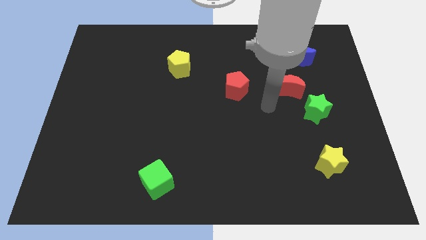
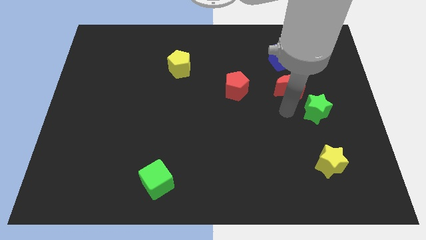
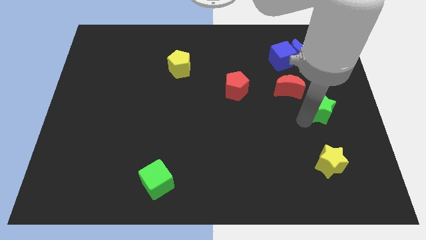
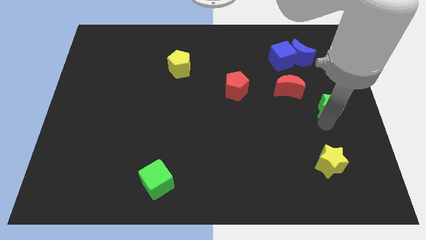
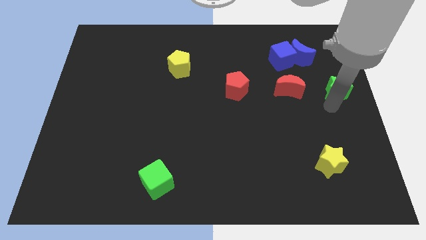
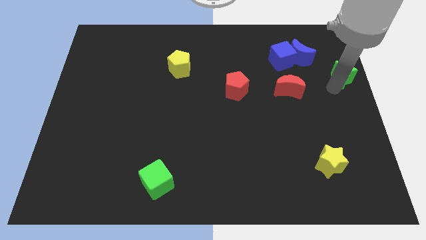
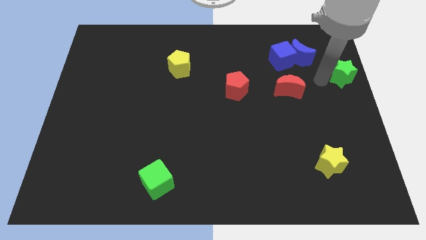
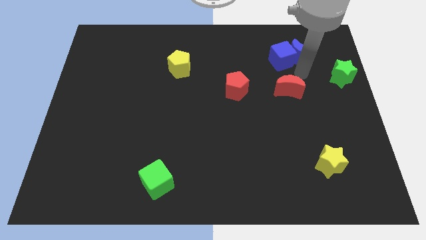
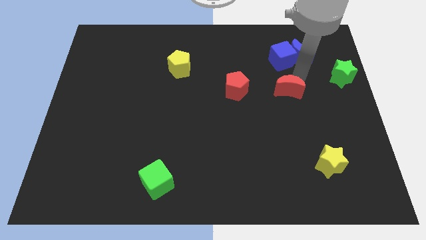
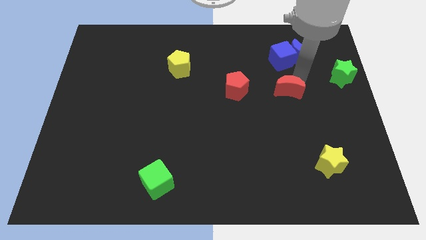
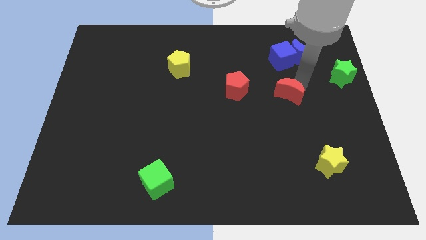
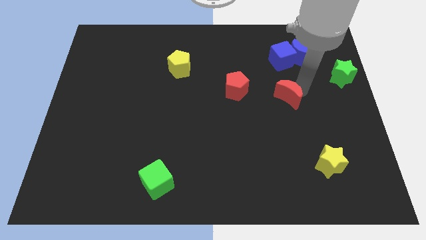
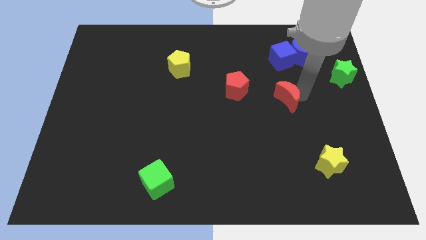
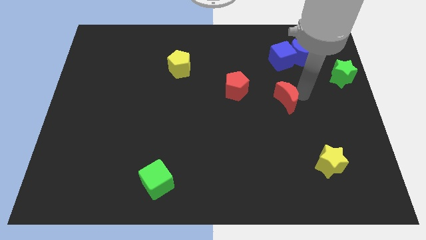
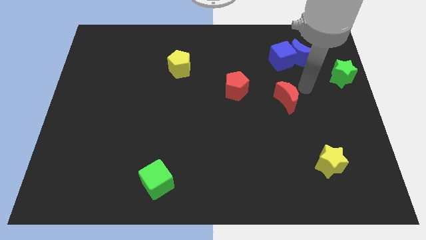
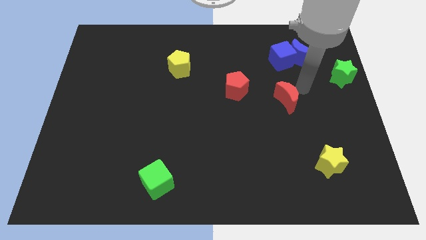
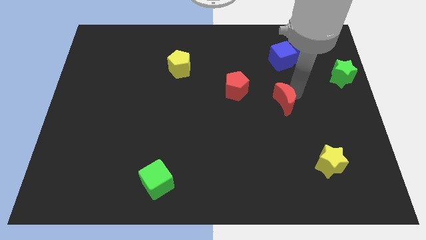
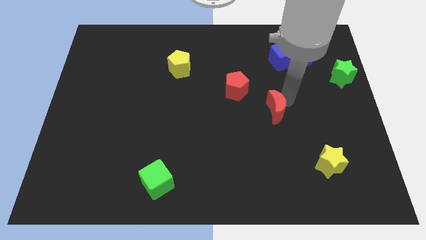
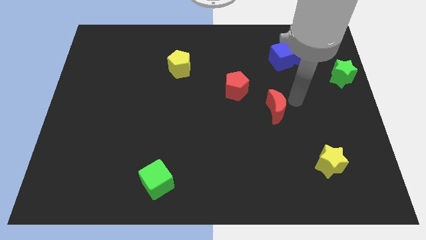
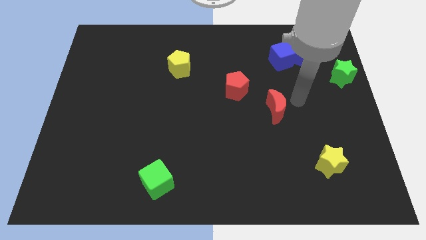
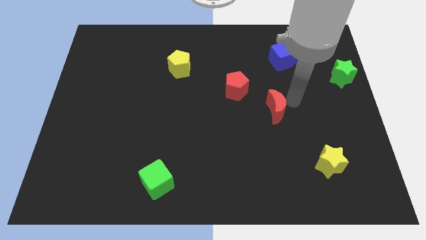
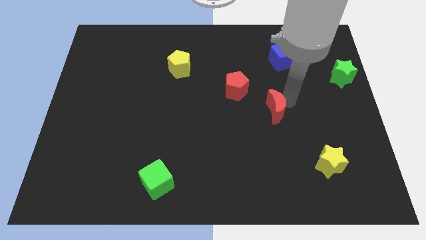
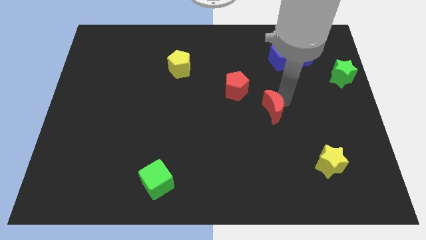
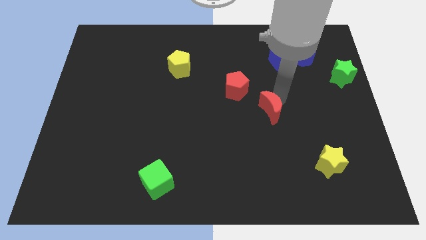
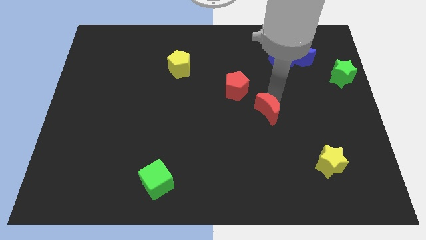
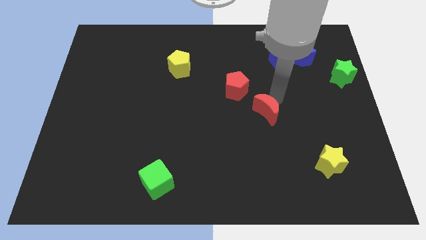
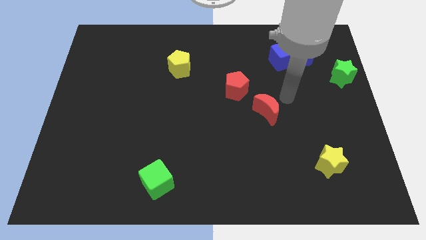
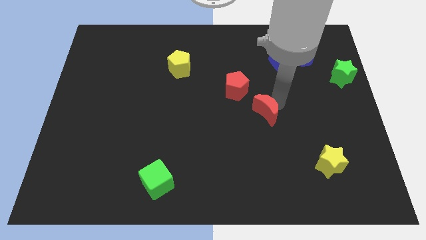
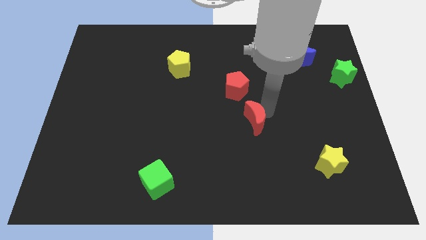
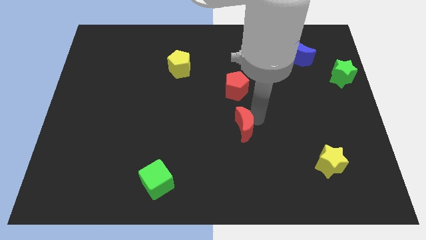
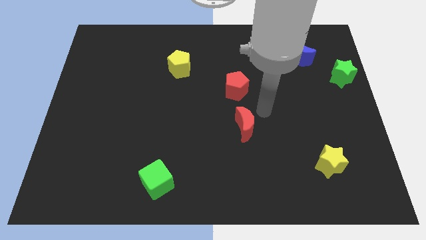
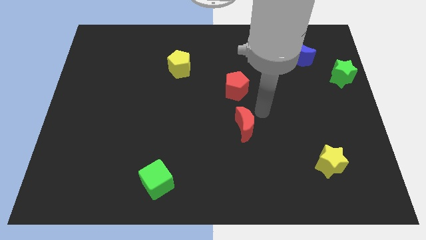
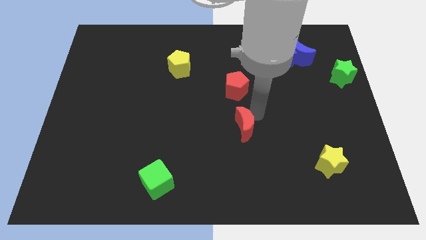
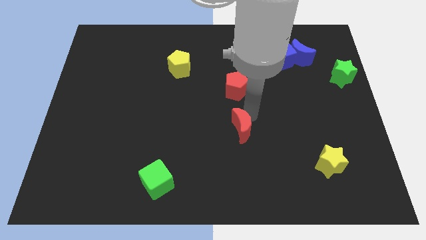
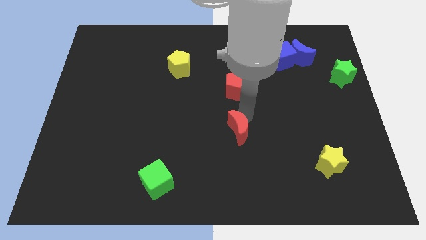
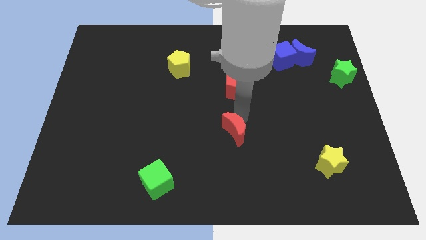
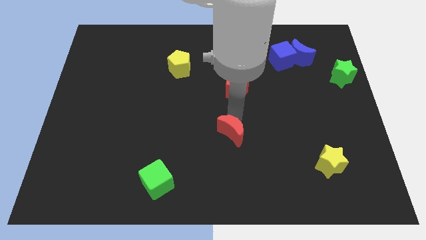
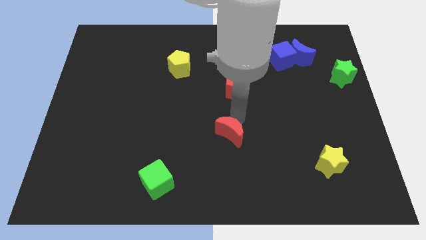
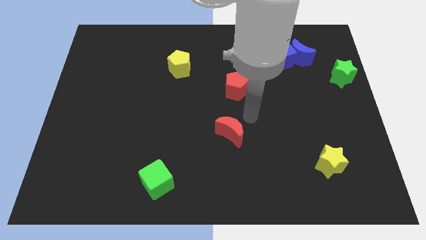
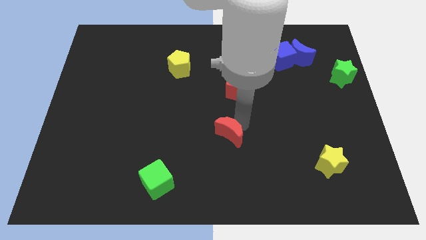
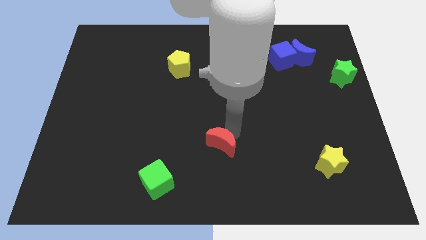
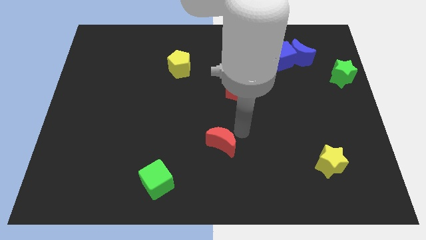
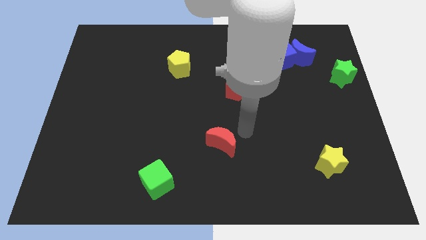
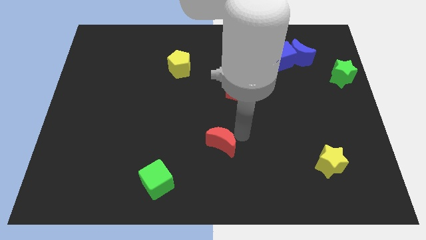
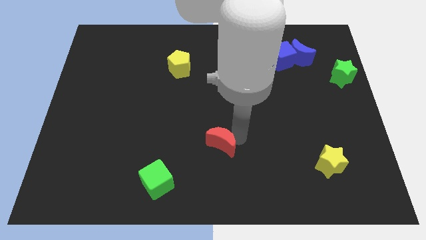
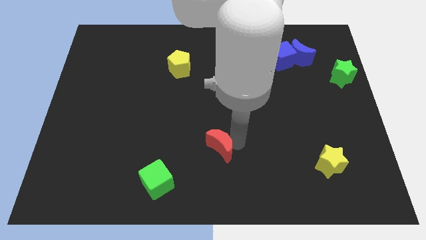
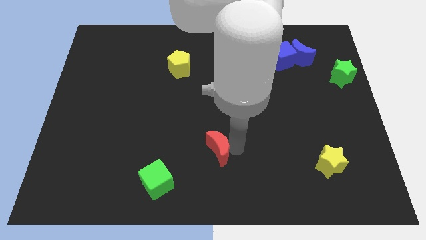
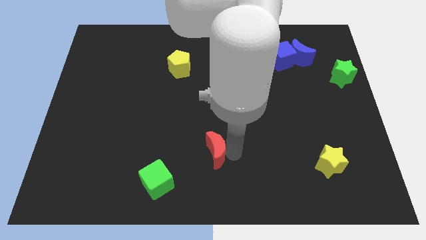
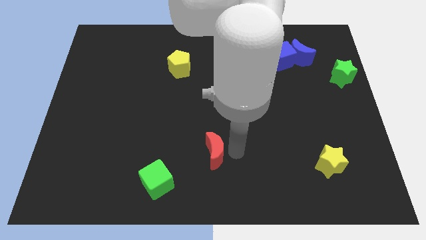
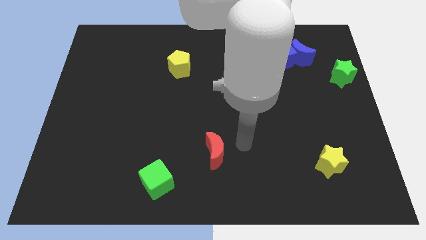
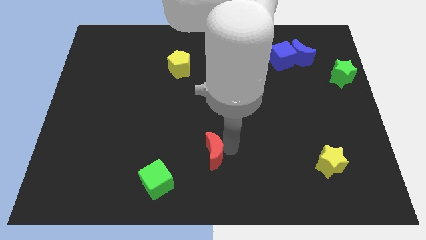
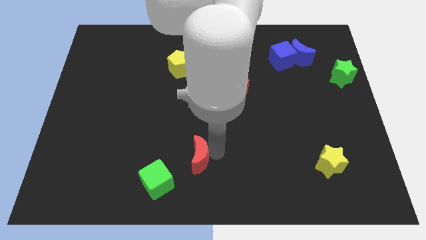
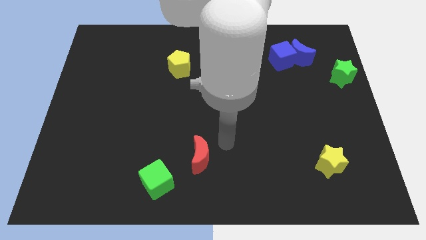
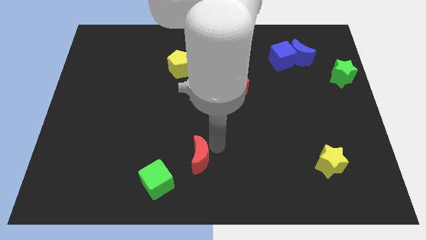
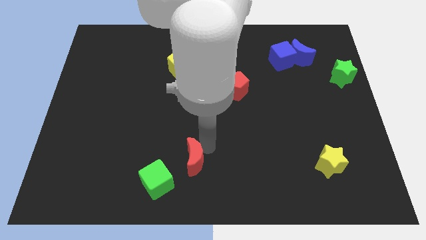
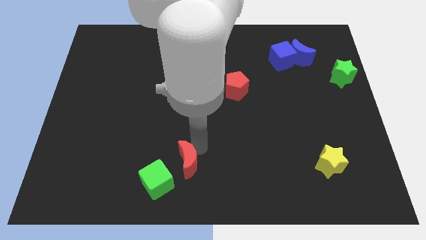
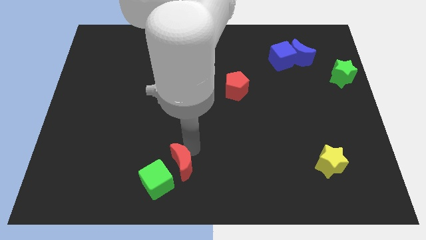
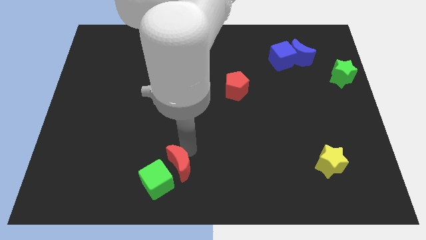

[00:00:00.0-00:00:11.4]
push the red moon close to the green cube
